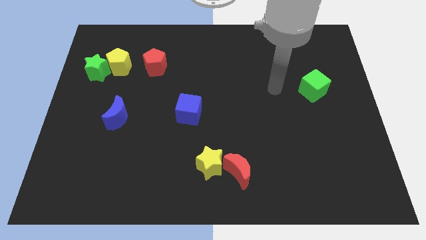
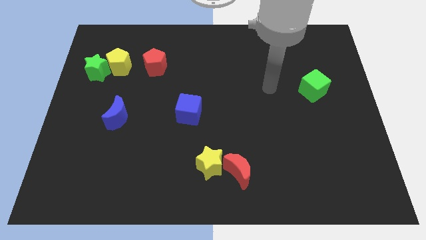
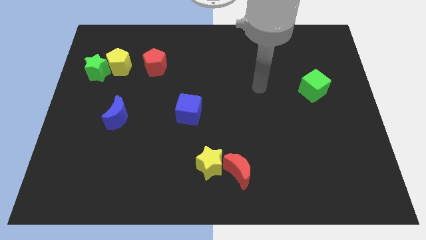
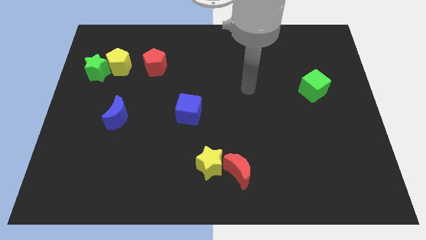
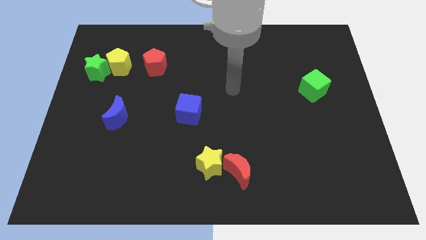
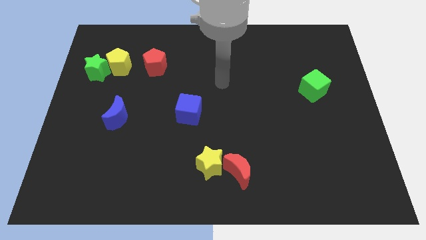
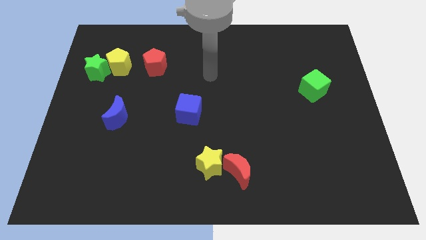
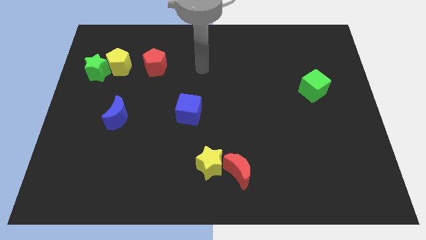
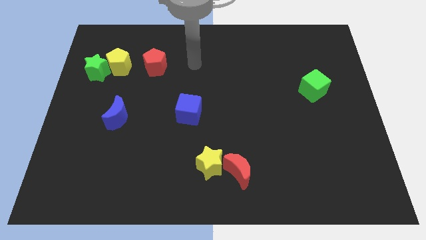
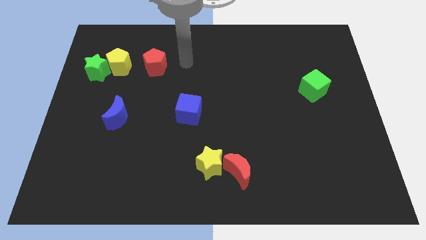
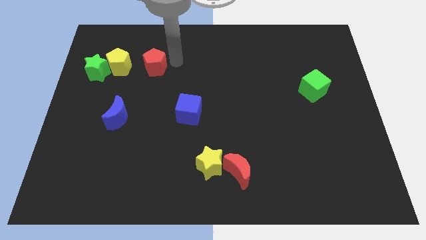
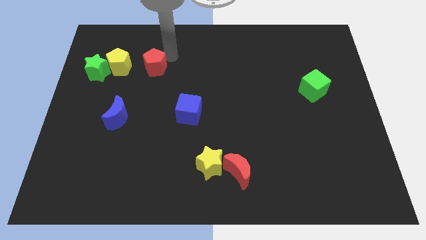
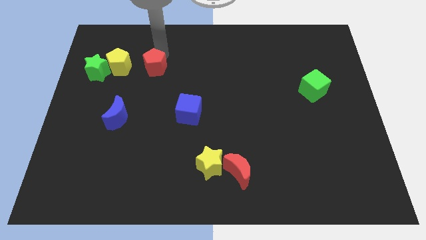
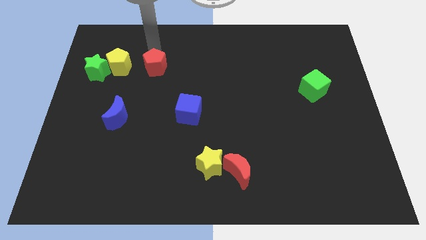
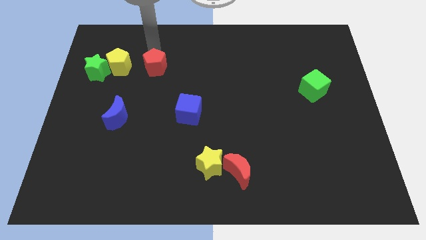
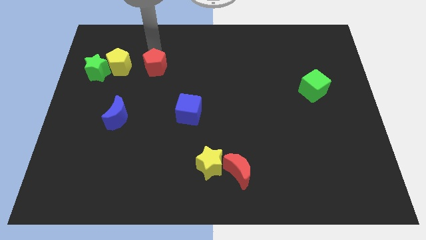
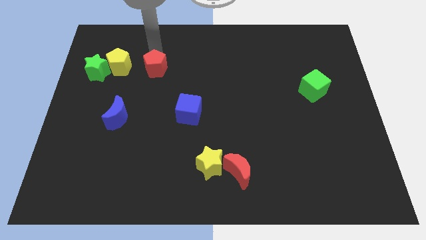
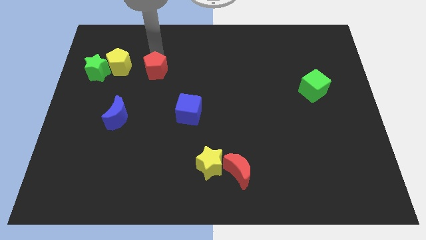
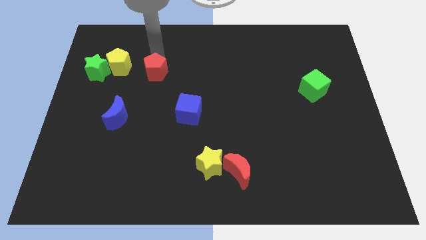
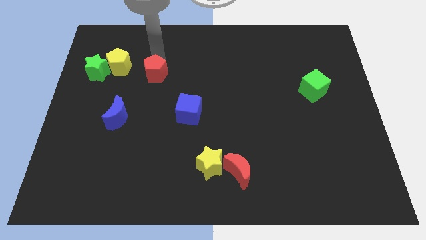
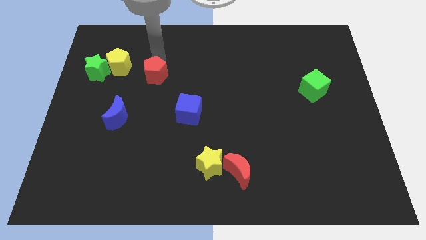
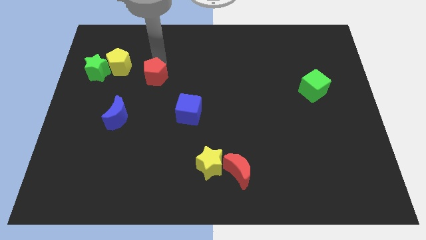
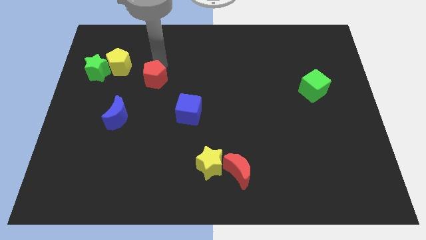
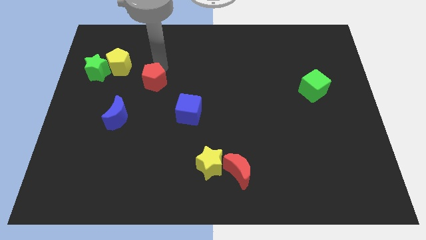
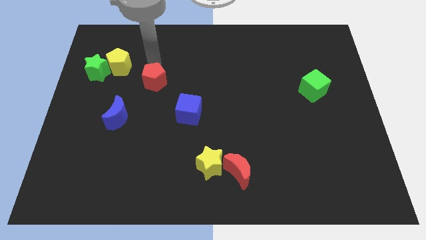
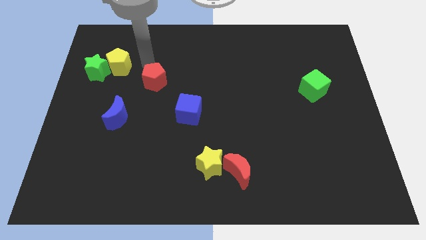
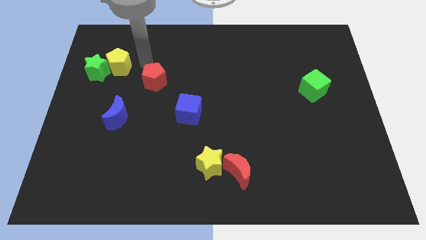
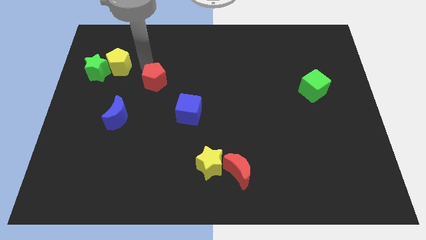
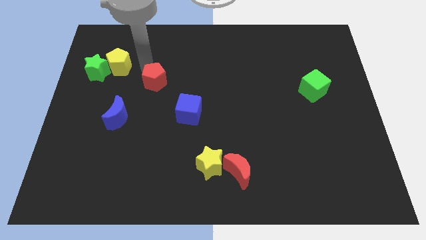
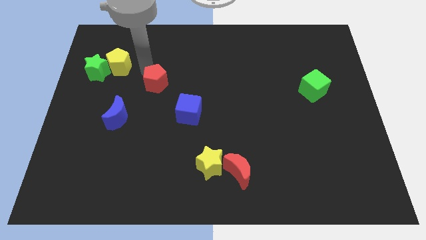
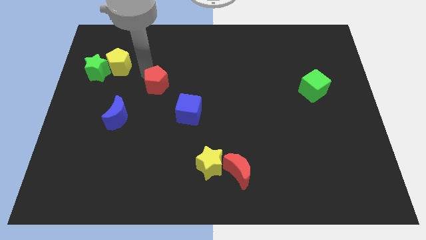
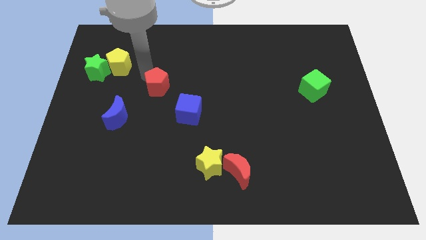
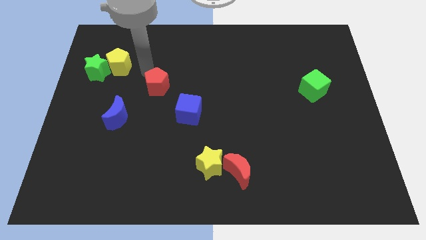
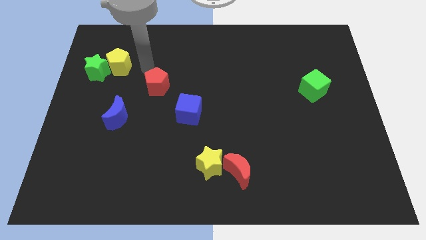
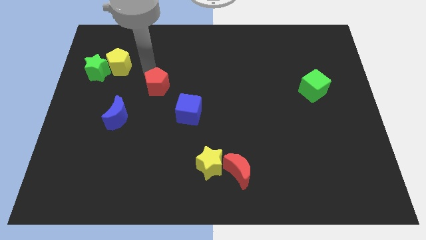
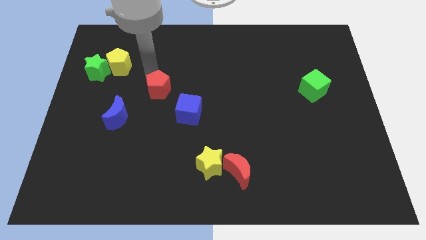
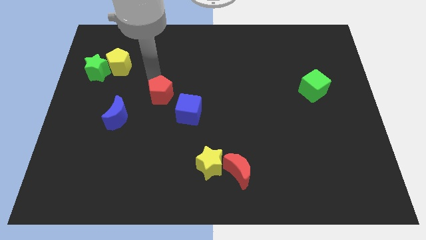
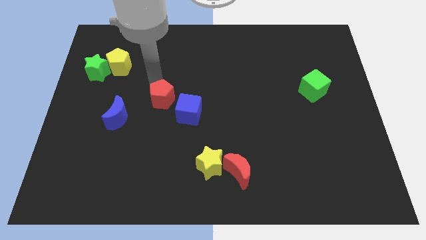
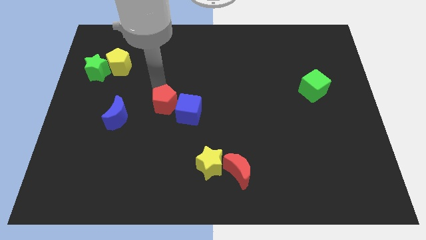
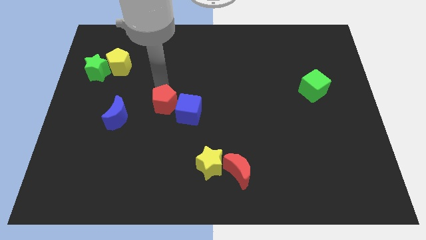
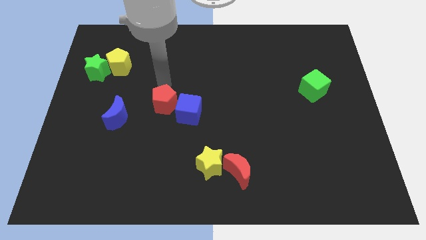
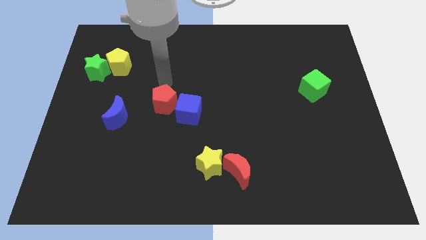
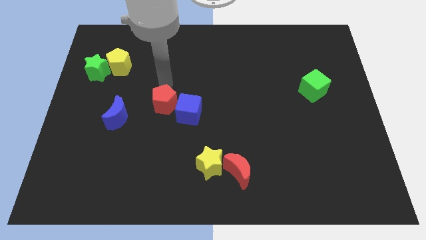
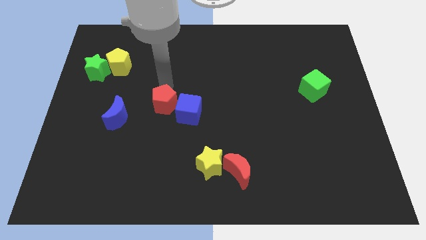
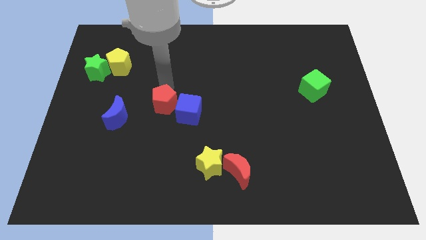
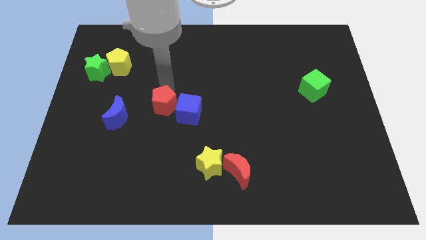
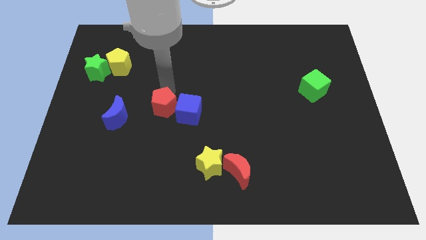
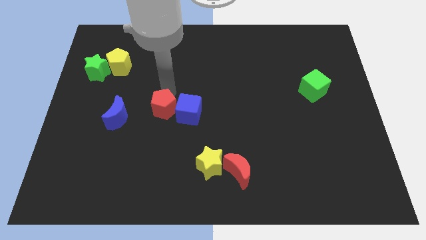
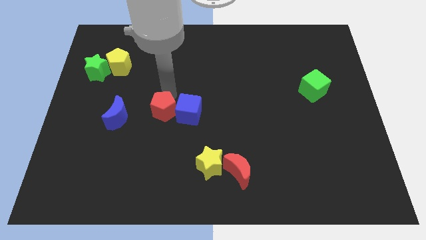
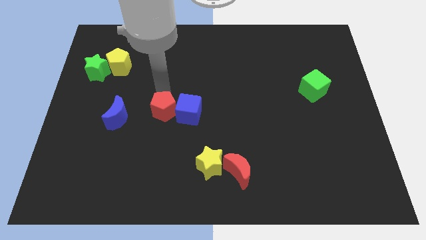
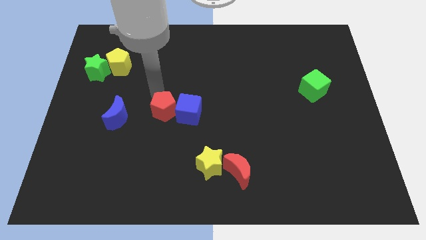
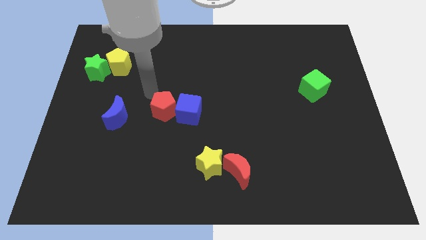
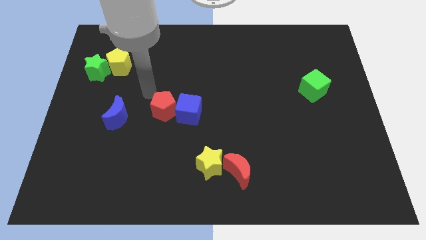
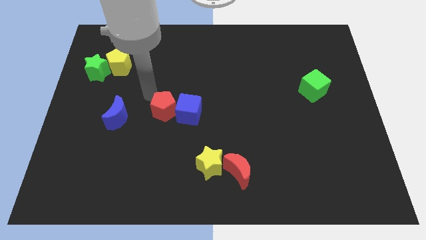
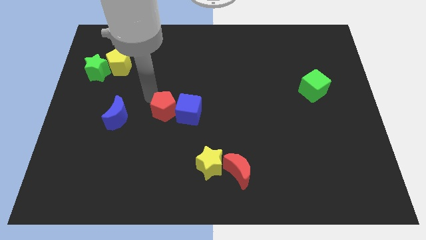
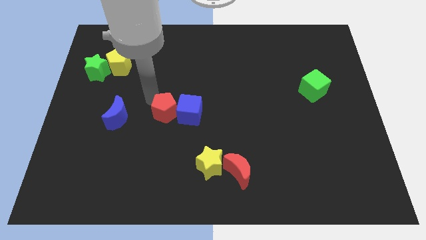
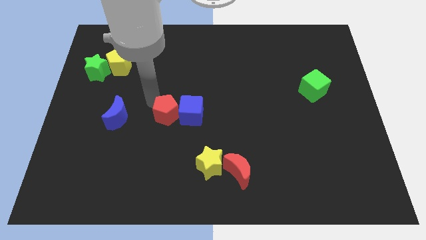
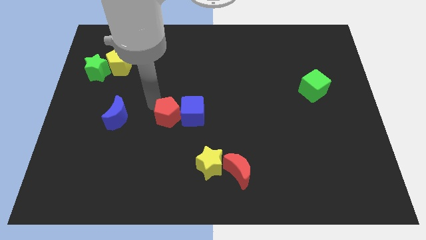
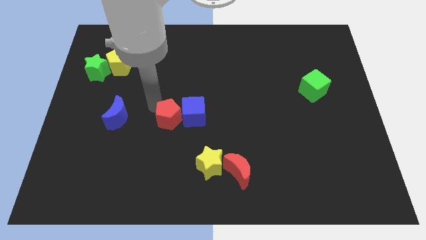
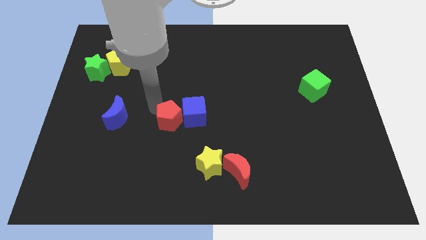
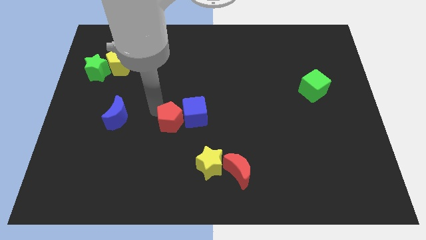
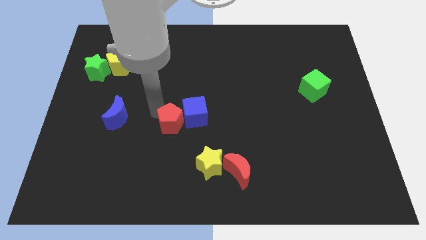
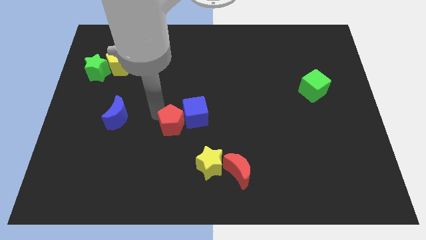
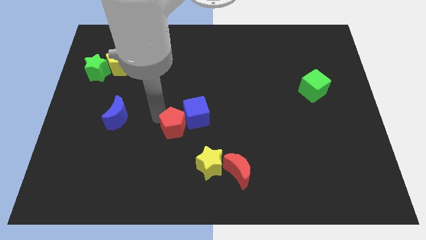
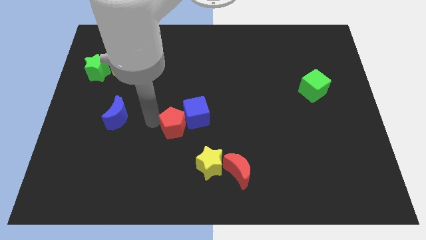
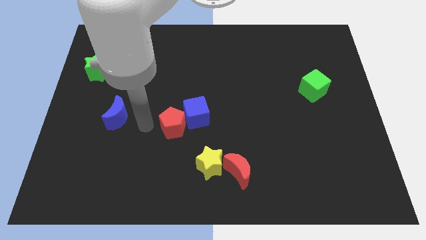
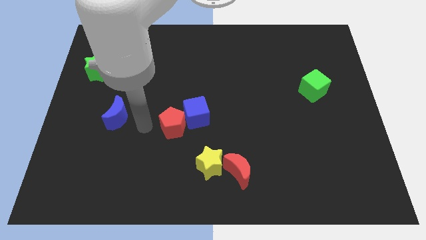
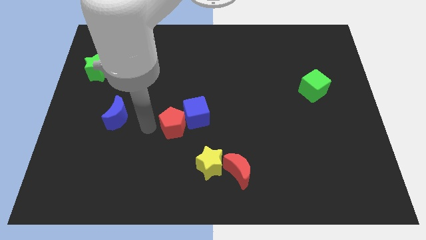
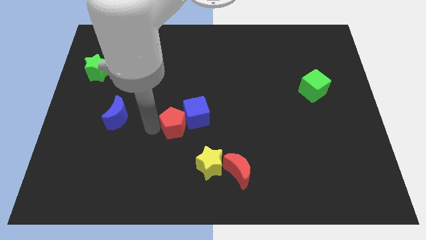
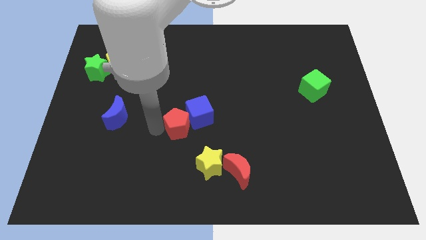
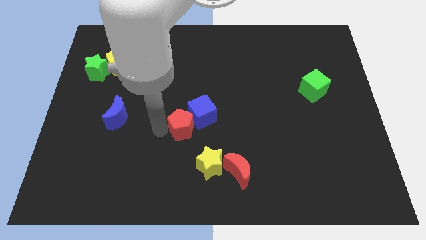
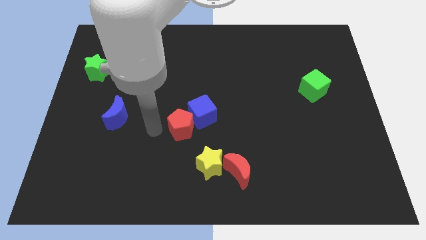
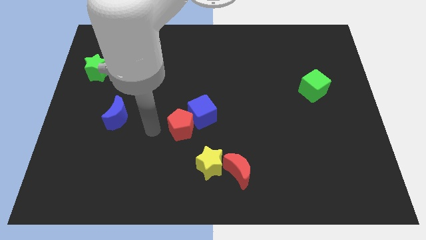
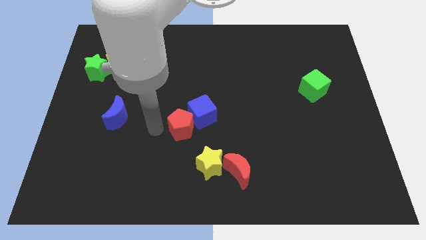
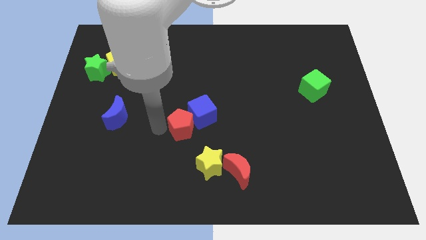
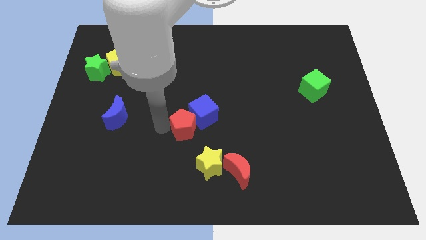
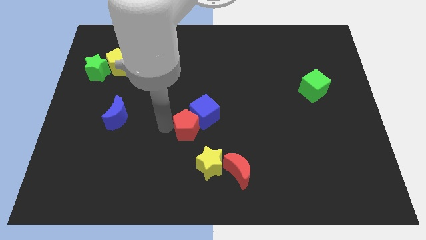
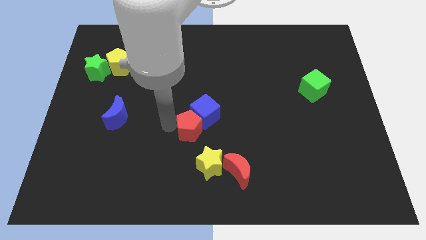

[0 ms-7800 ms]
push the red pentagon above the yellow star
